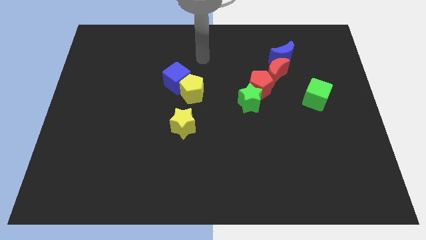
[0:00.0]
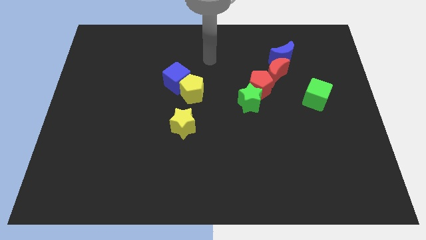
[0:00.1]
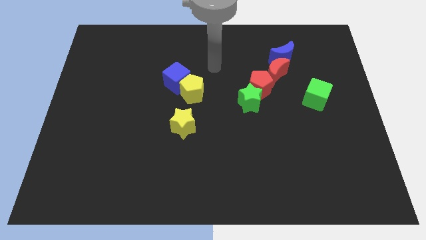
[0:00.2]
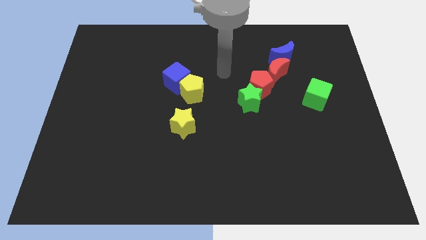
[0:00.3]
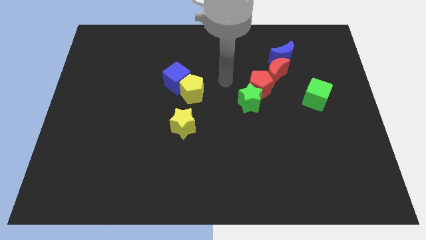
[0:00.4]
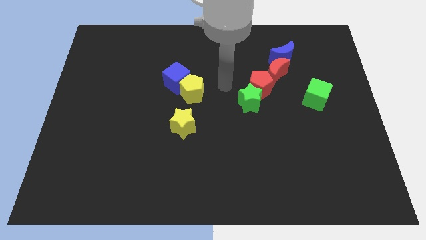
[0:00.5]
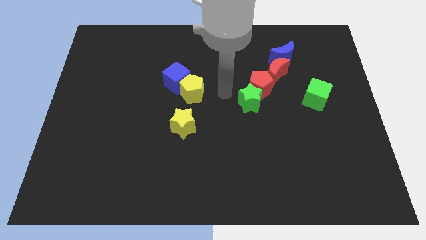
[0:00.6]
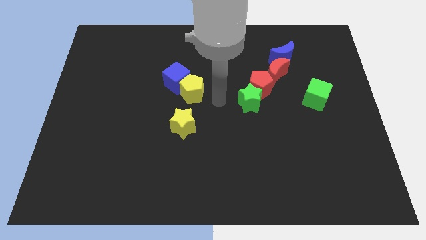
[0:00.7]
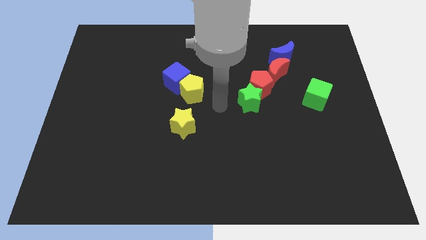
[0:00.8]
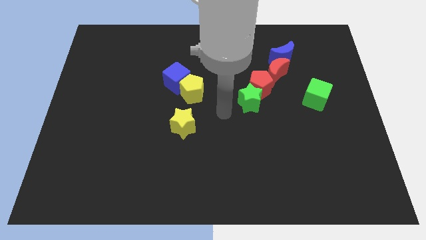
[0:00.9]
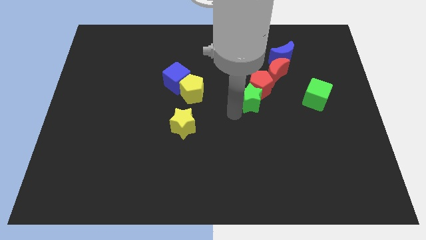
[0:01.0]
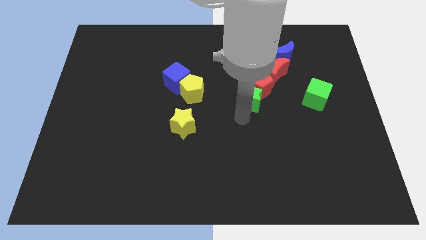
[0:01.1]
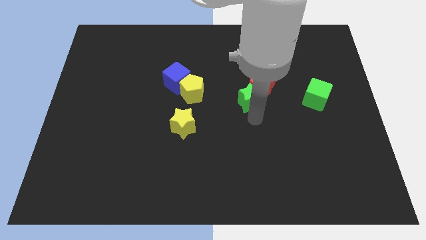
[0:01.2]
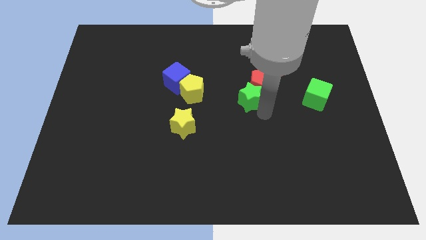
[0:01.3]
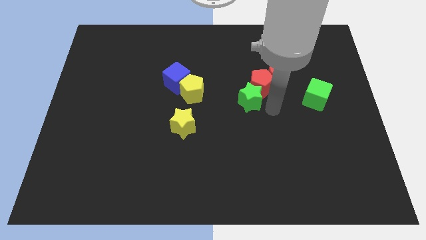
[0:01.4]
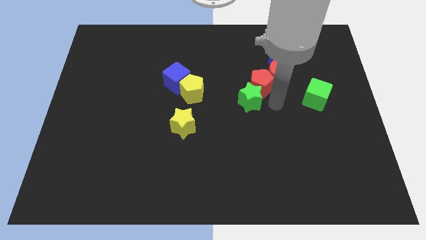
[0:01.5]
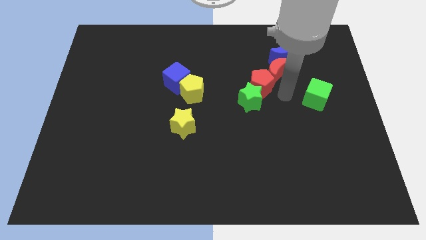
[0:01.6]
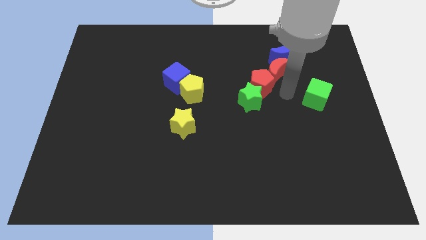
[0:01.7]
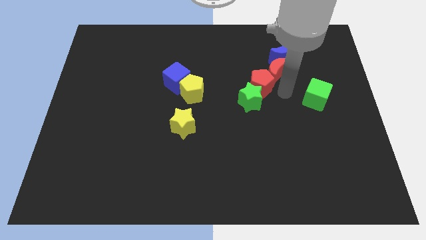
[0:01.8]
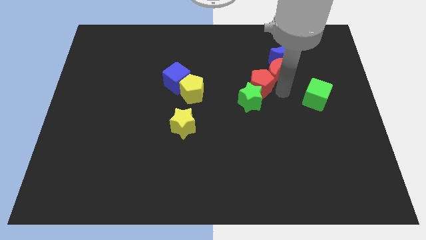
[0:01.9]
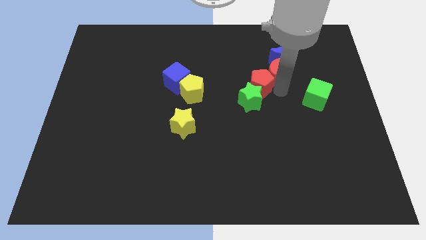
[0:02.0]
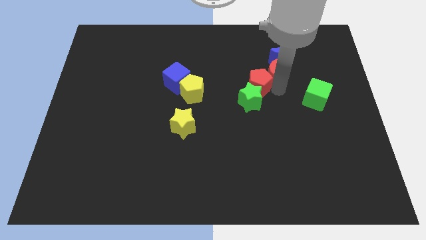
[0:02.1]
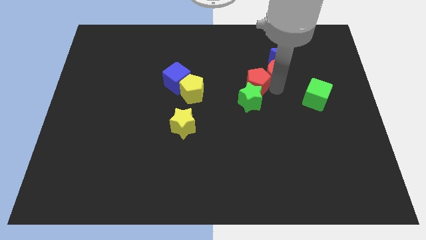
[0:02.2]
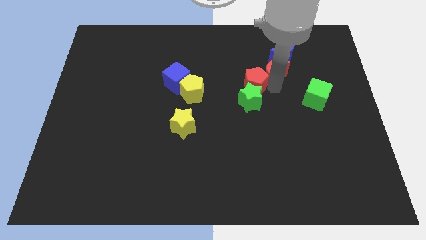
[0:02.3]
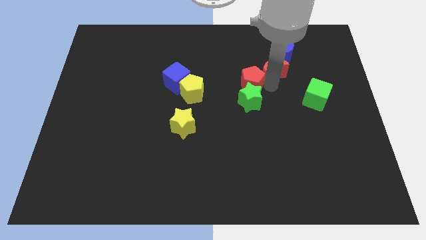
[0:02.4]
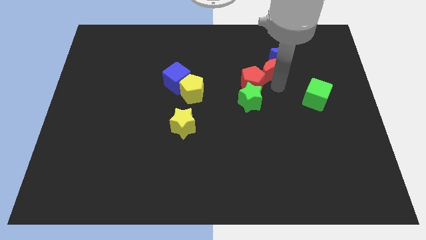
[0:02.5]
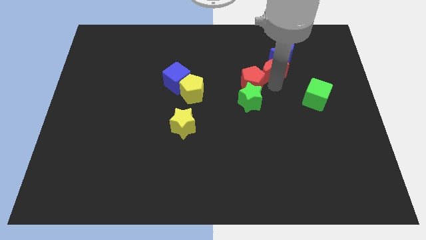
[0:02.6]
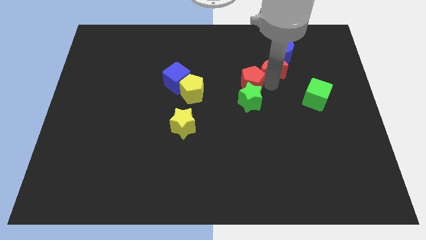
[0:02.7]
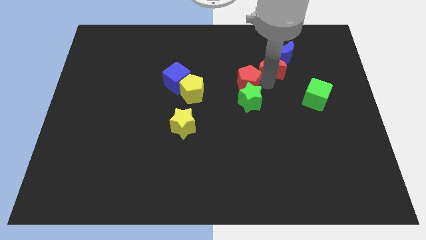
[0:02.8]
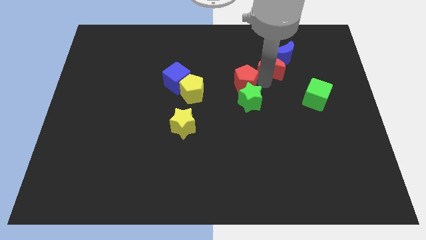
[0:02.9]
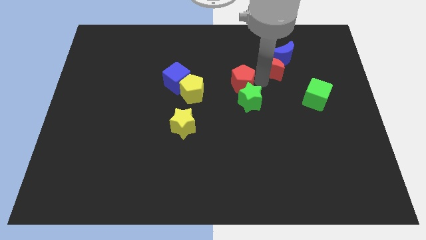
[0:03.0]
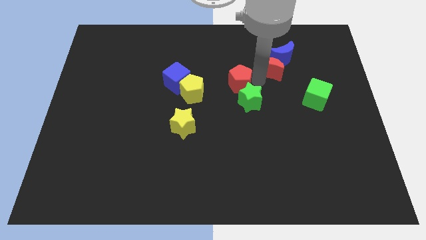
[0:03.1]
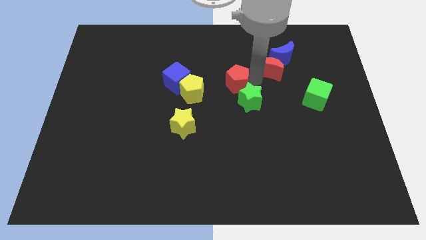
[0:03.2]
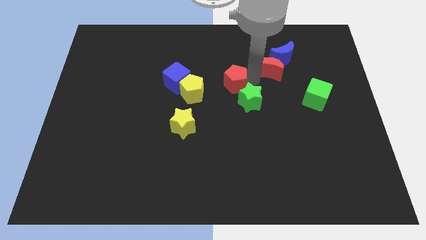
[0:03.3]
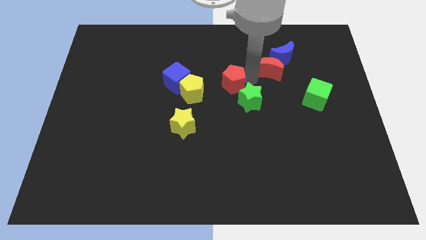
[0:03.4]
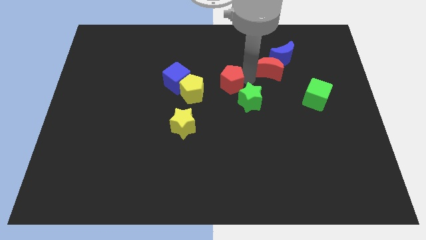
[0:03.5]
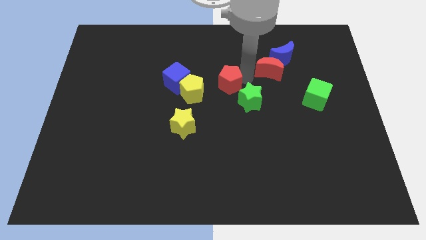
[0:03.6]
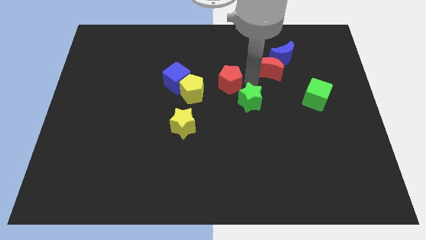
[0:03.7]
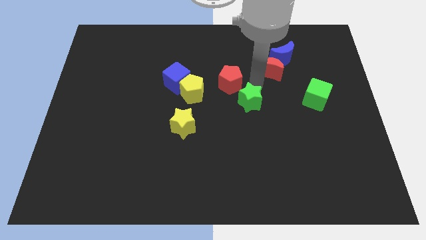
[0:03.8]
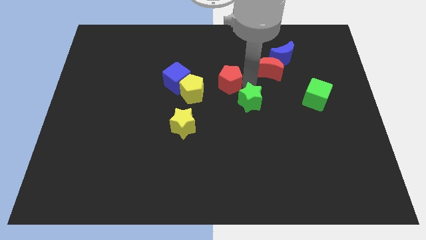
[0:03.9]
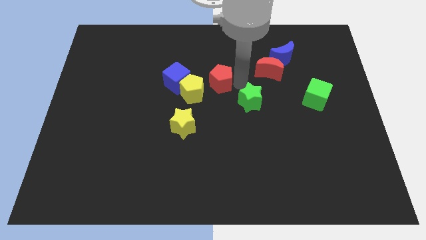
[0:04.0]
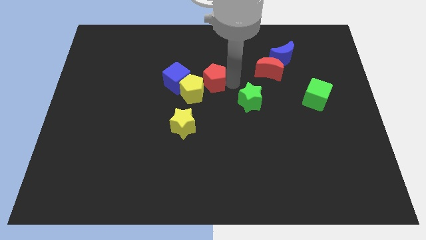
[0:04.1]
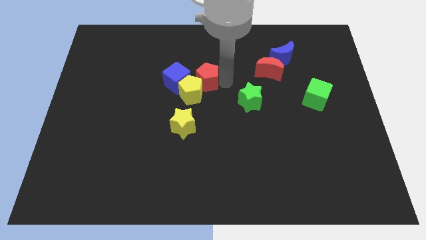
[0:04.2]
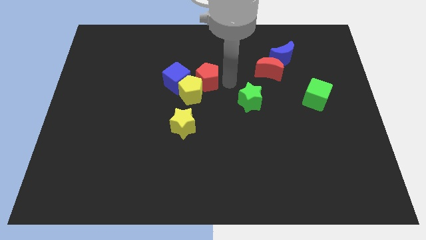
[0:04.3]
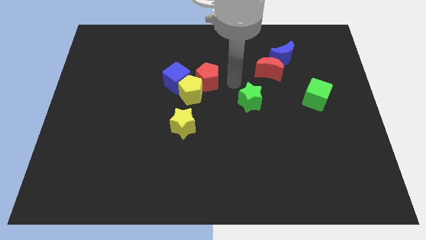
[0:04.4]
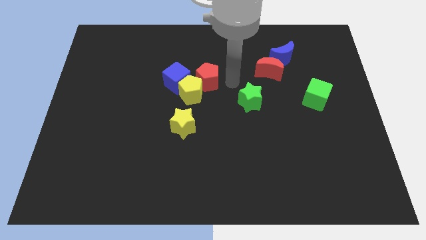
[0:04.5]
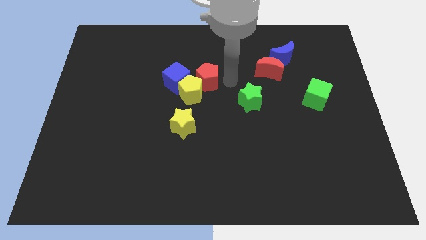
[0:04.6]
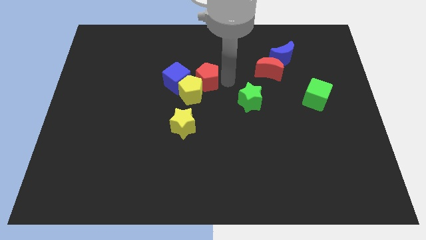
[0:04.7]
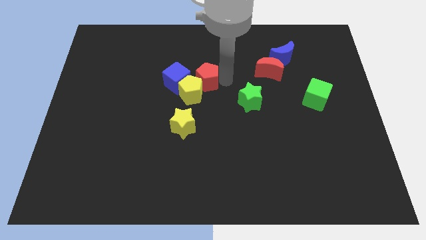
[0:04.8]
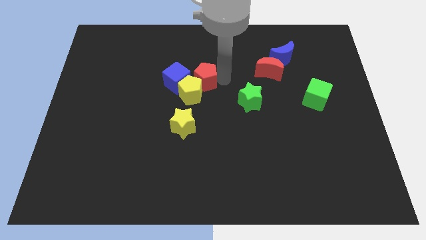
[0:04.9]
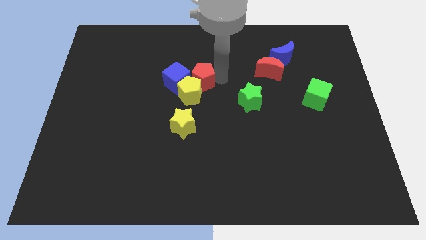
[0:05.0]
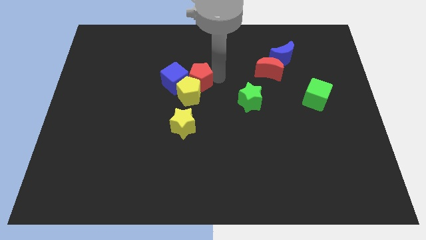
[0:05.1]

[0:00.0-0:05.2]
put the red pentagon towards the blue cube

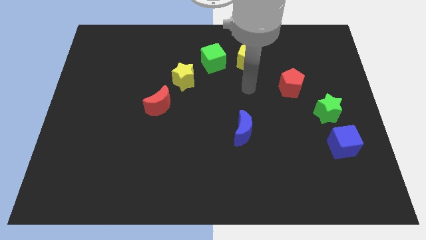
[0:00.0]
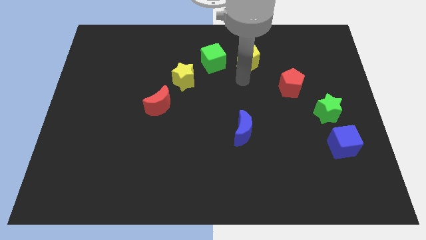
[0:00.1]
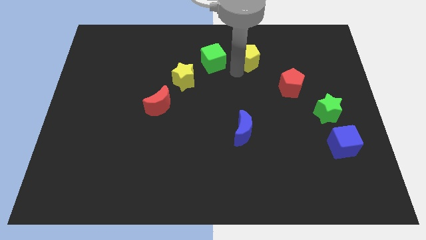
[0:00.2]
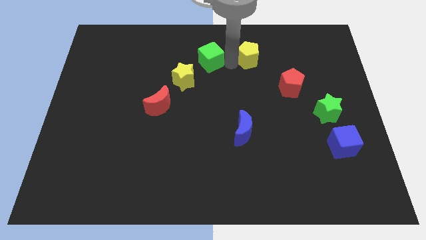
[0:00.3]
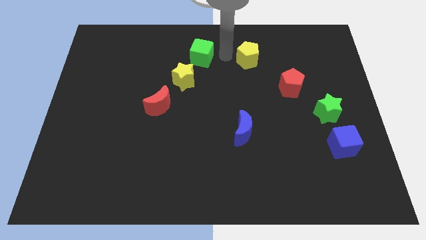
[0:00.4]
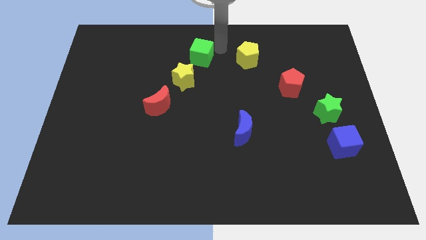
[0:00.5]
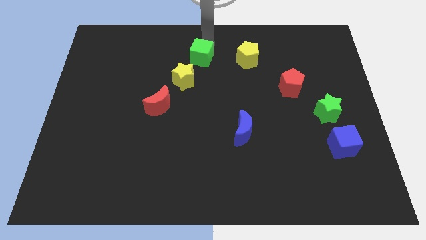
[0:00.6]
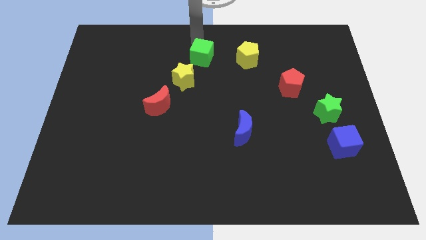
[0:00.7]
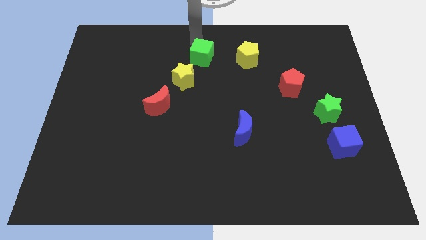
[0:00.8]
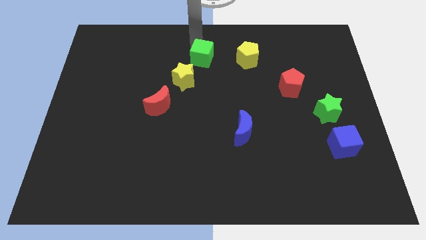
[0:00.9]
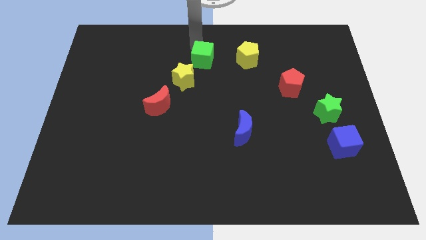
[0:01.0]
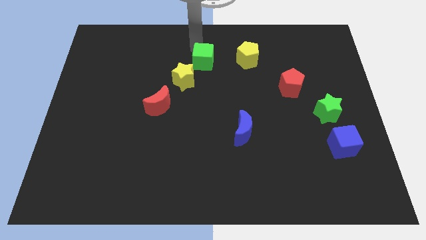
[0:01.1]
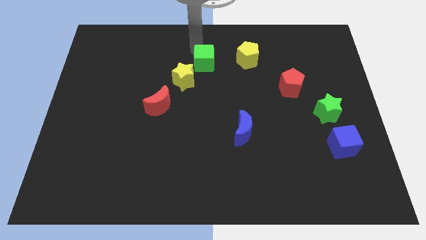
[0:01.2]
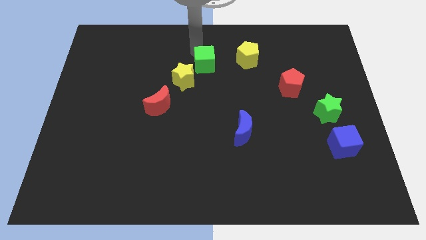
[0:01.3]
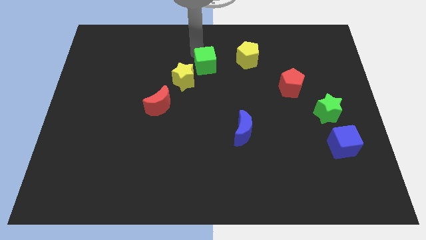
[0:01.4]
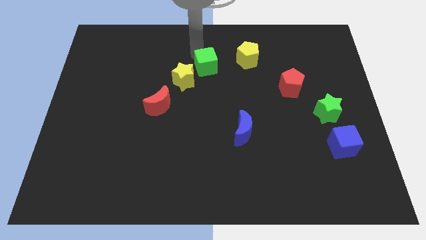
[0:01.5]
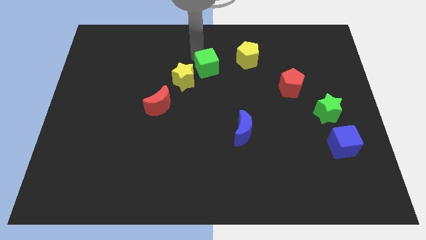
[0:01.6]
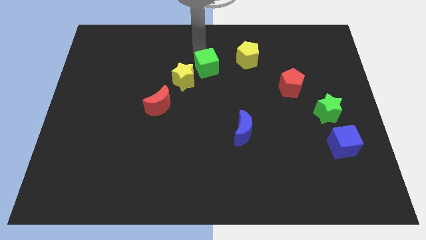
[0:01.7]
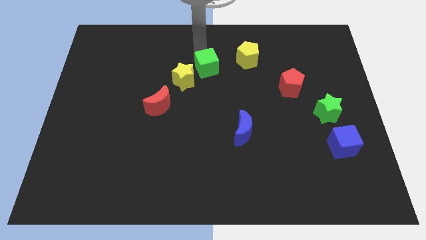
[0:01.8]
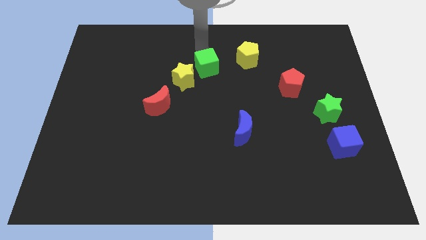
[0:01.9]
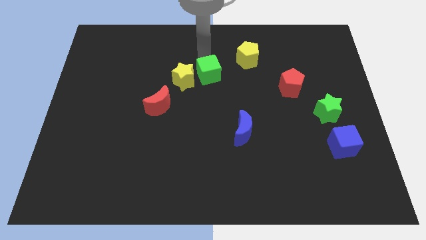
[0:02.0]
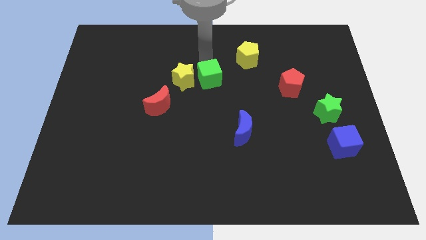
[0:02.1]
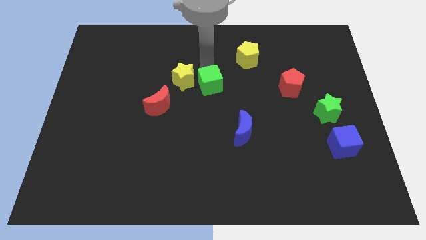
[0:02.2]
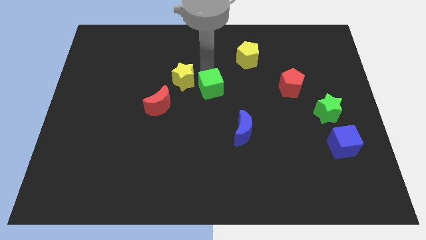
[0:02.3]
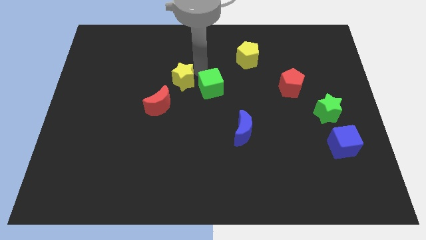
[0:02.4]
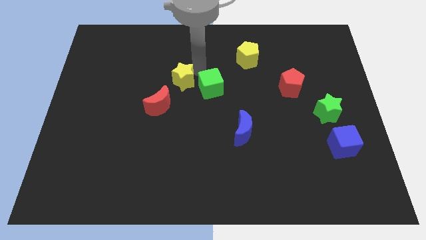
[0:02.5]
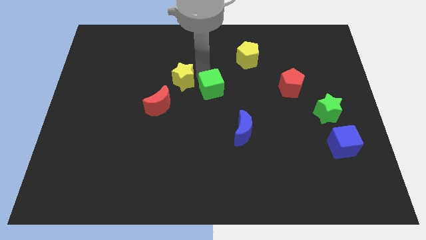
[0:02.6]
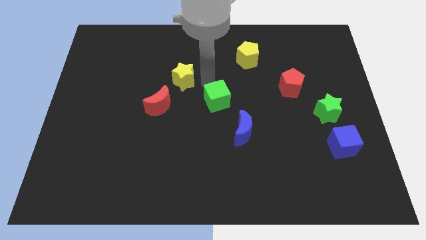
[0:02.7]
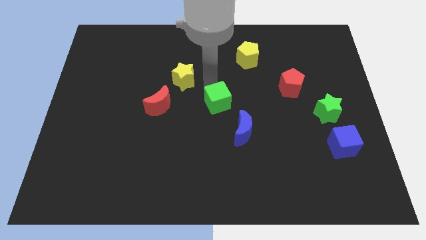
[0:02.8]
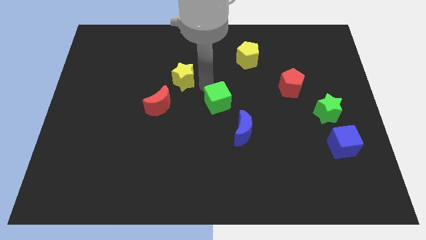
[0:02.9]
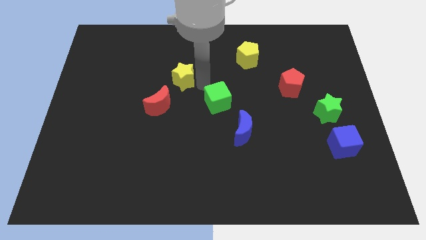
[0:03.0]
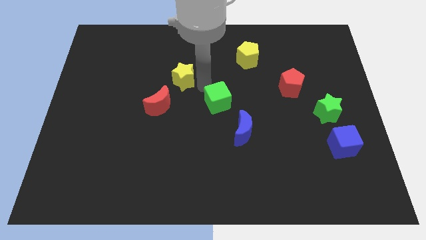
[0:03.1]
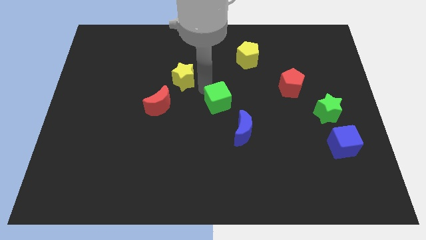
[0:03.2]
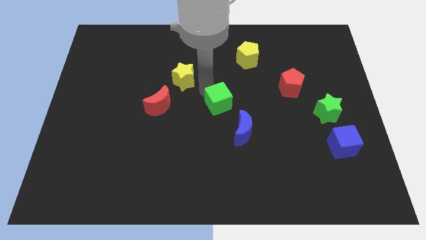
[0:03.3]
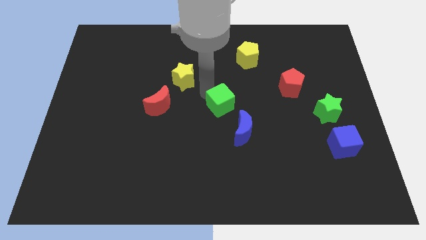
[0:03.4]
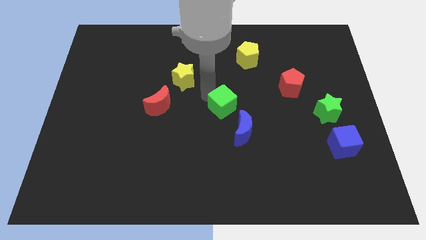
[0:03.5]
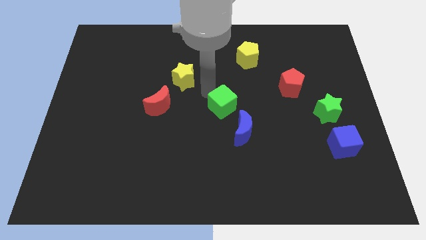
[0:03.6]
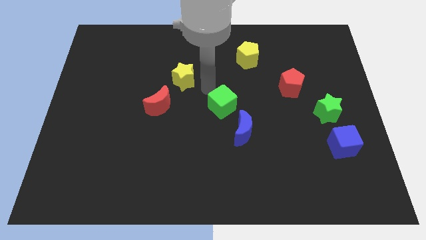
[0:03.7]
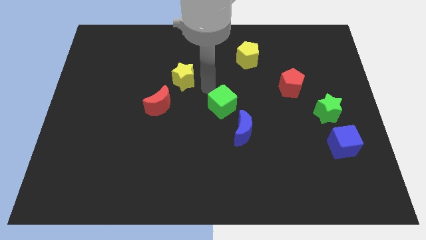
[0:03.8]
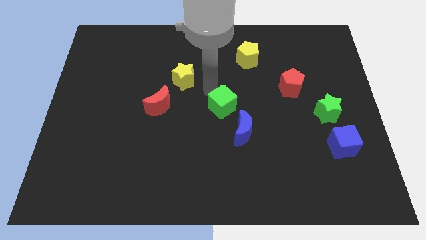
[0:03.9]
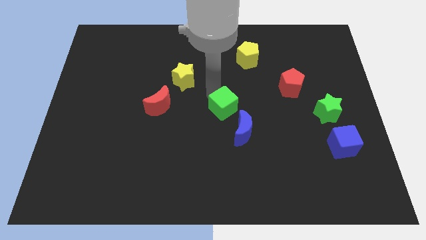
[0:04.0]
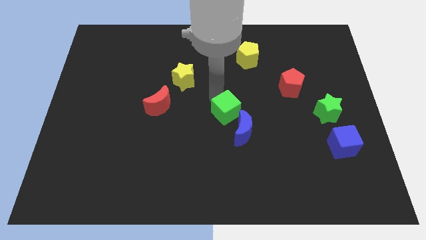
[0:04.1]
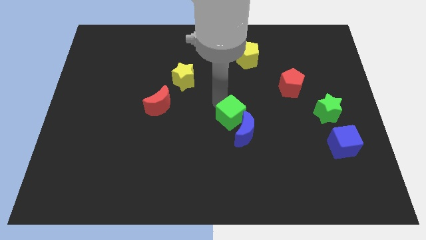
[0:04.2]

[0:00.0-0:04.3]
move the green cube close to the blue moon
